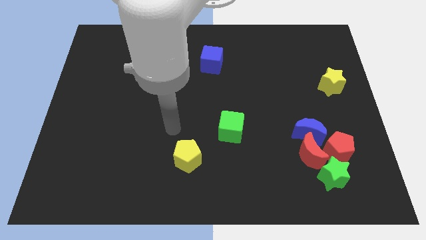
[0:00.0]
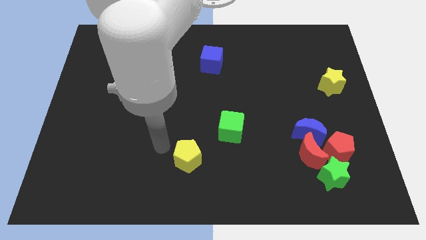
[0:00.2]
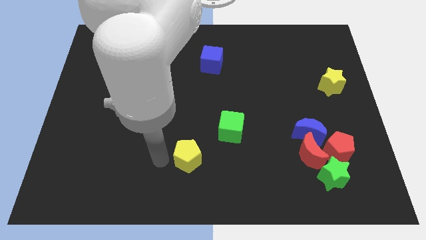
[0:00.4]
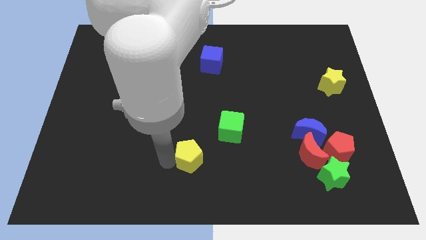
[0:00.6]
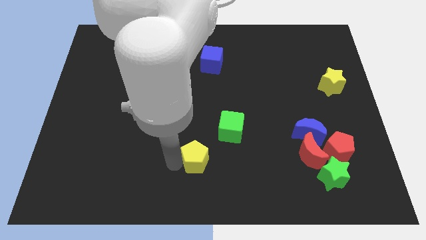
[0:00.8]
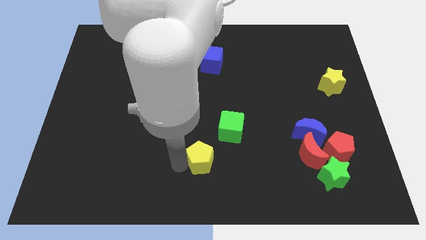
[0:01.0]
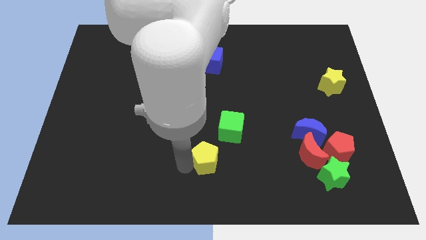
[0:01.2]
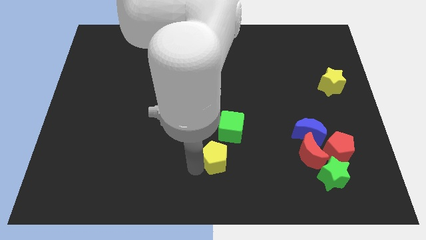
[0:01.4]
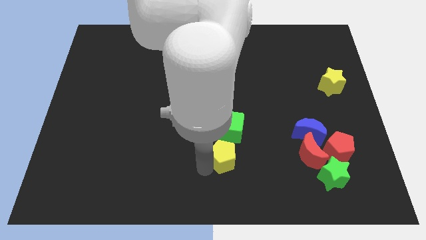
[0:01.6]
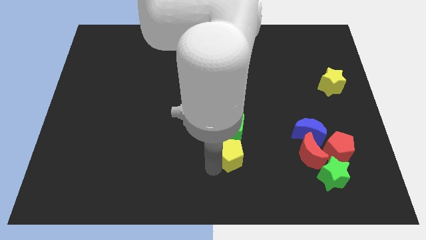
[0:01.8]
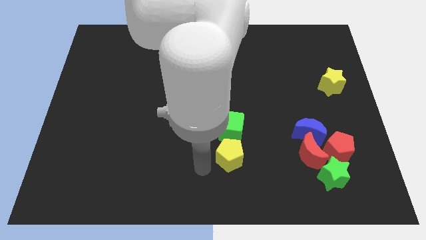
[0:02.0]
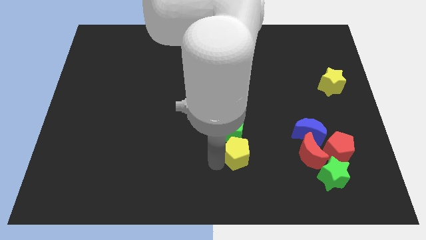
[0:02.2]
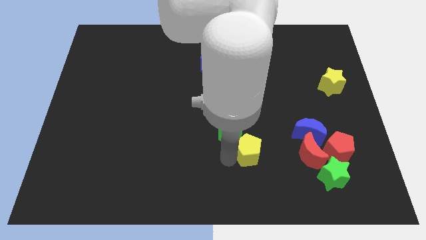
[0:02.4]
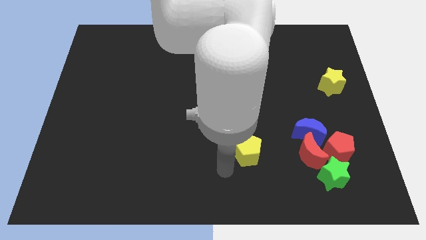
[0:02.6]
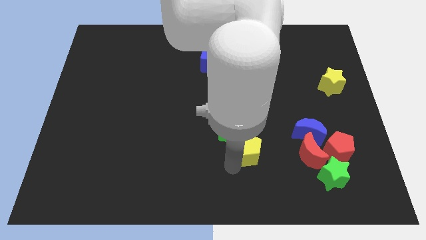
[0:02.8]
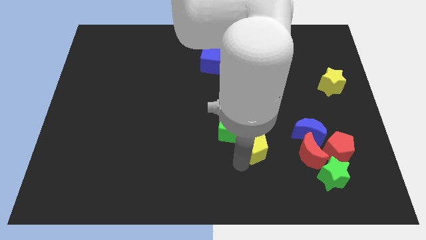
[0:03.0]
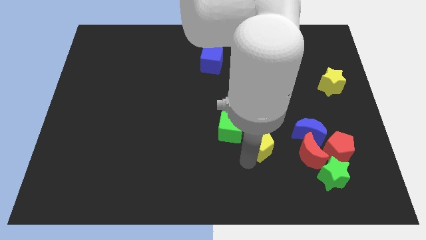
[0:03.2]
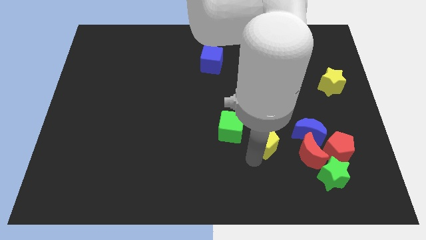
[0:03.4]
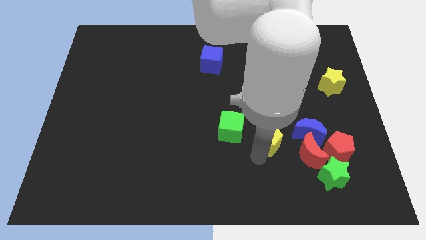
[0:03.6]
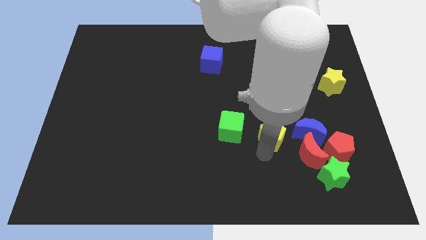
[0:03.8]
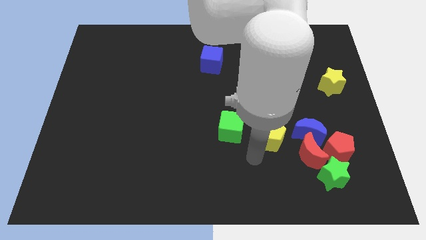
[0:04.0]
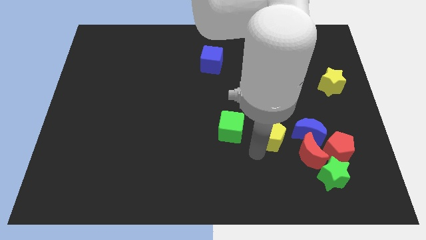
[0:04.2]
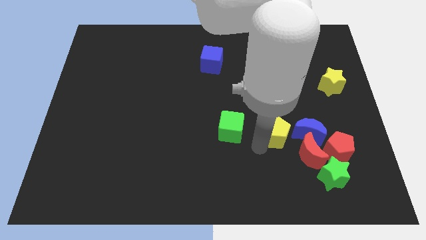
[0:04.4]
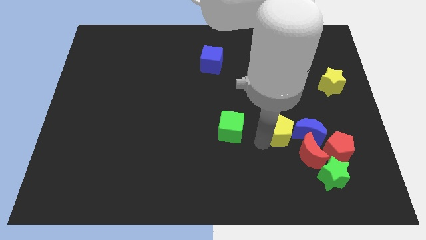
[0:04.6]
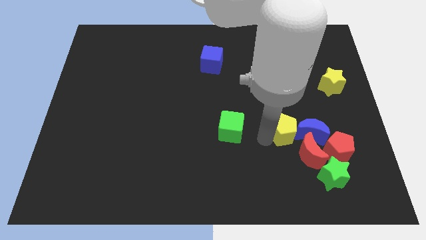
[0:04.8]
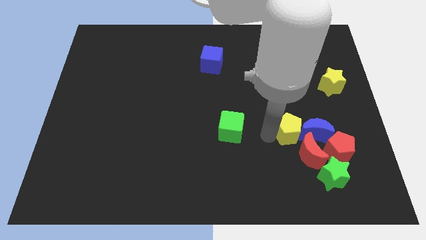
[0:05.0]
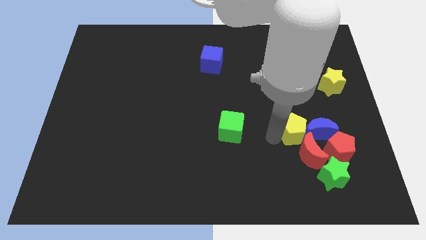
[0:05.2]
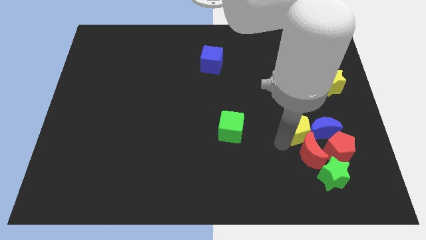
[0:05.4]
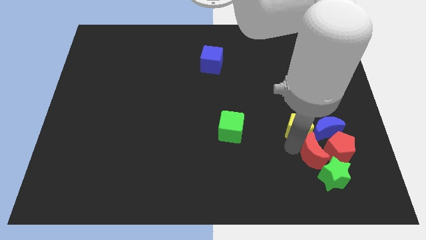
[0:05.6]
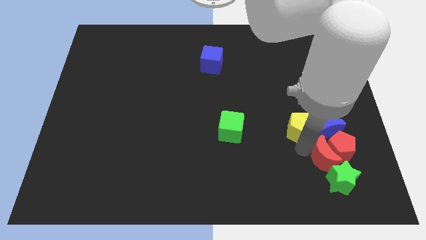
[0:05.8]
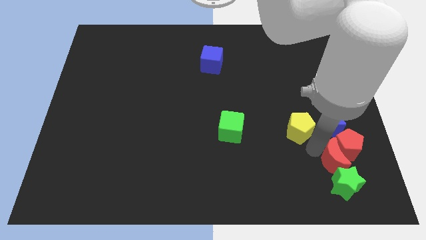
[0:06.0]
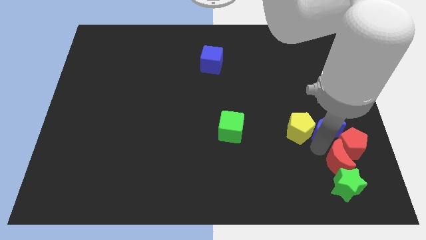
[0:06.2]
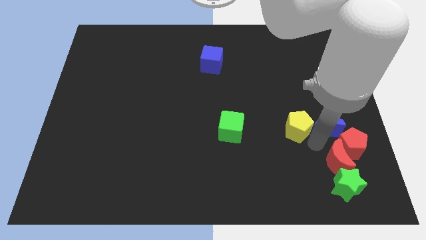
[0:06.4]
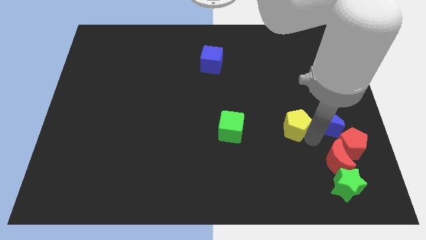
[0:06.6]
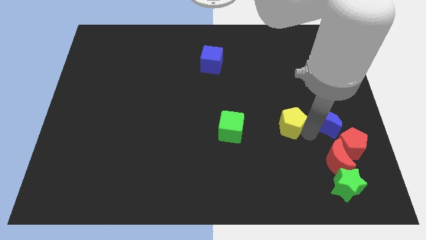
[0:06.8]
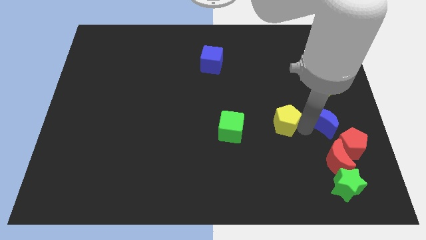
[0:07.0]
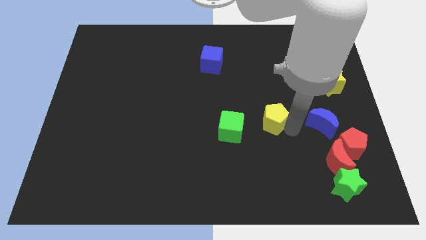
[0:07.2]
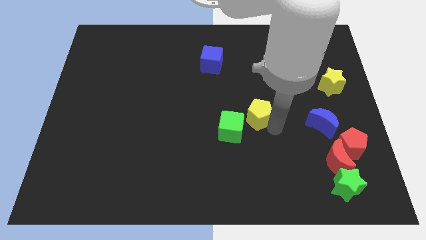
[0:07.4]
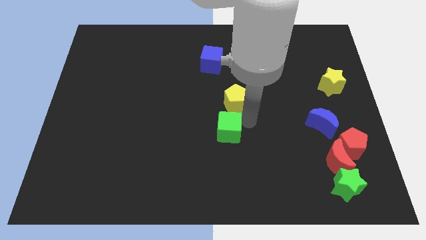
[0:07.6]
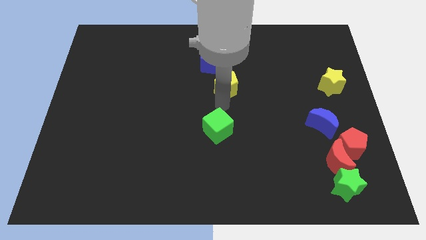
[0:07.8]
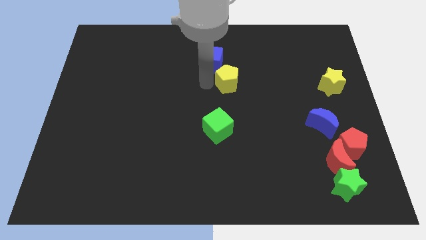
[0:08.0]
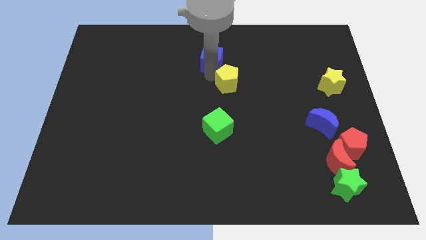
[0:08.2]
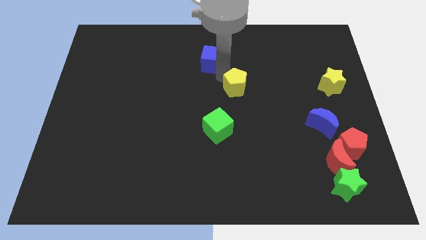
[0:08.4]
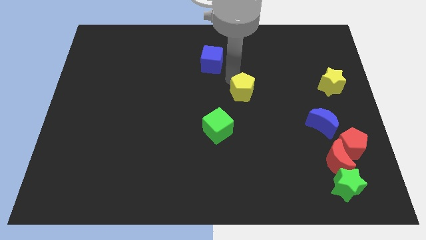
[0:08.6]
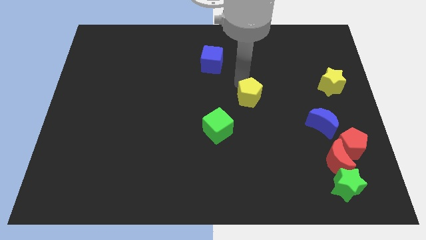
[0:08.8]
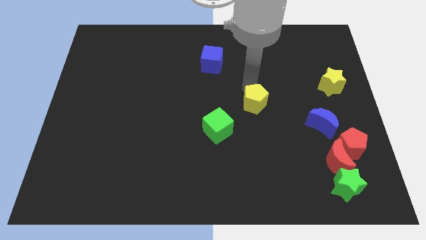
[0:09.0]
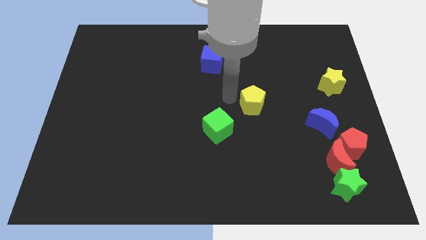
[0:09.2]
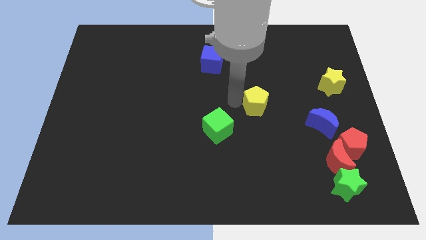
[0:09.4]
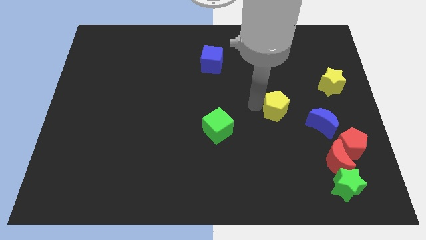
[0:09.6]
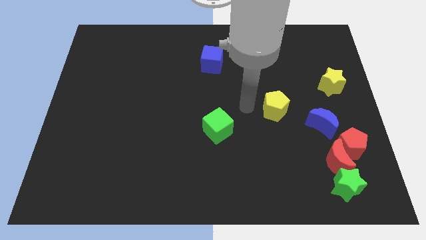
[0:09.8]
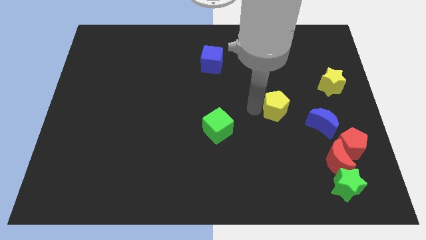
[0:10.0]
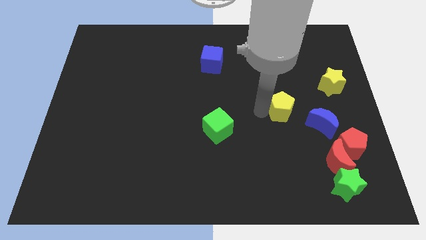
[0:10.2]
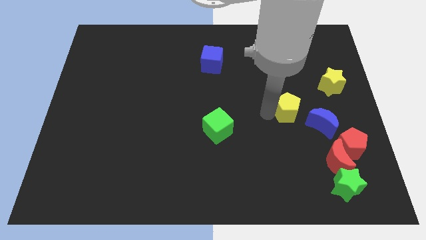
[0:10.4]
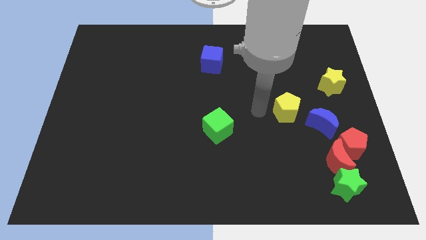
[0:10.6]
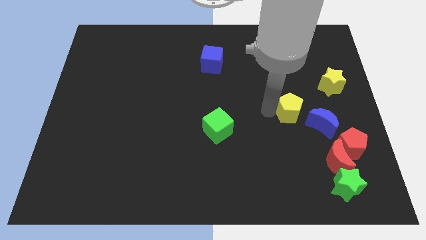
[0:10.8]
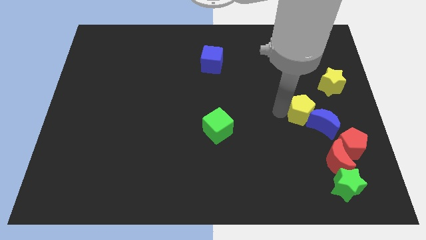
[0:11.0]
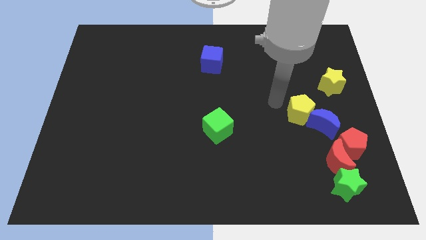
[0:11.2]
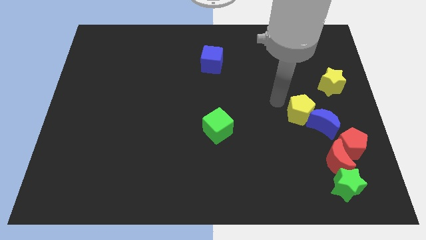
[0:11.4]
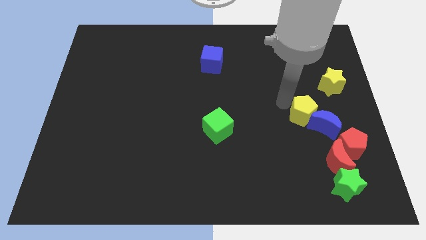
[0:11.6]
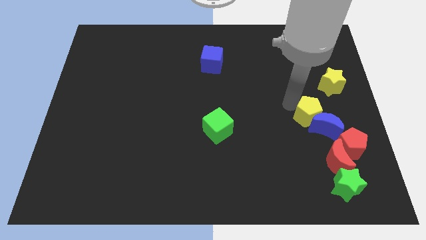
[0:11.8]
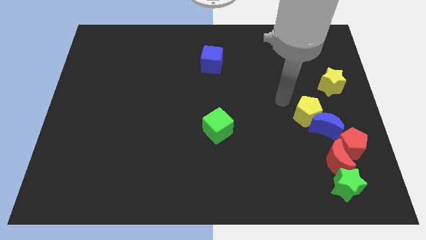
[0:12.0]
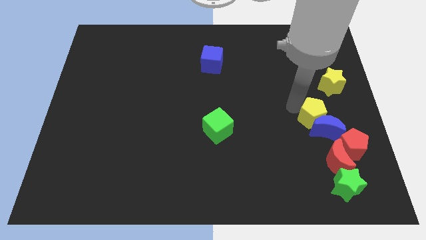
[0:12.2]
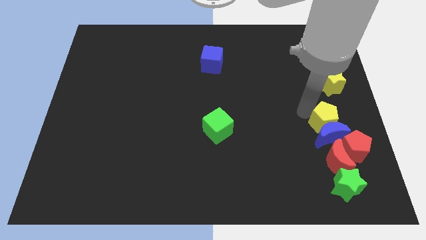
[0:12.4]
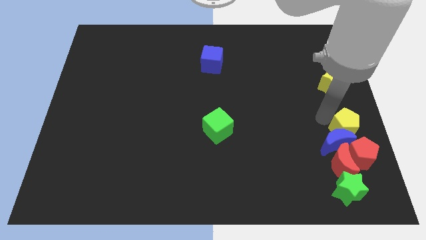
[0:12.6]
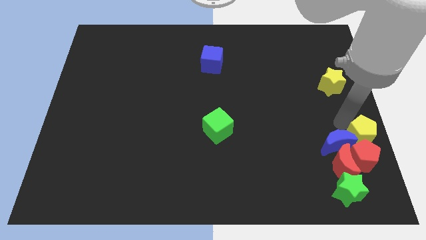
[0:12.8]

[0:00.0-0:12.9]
slide the yellow pentagon towards the red pentagon

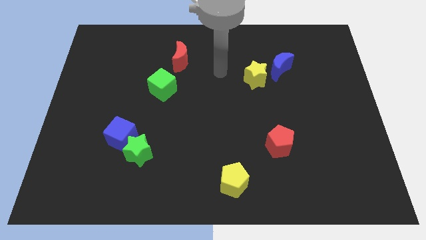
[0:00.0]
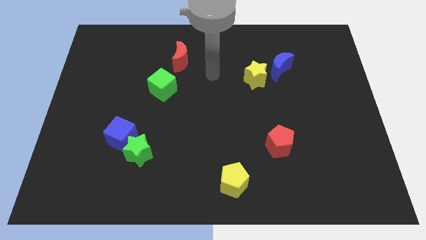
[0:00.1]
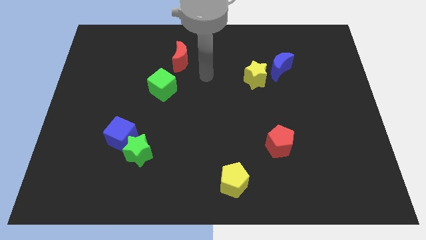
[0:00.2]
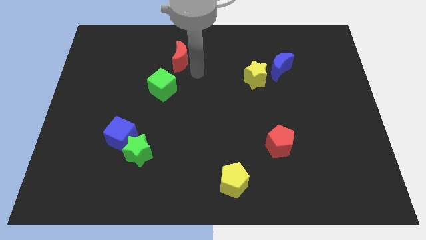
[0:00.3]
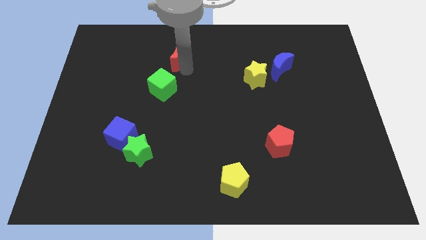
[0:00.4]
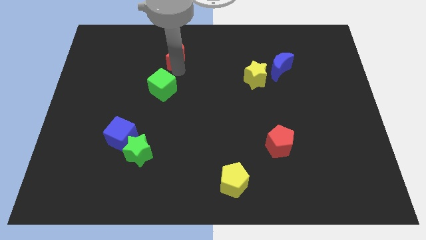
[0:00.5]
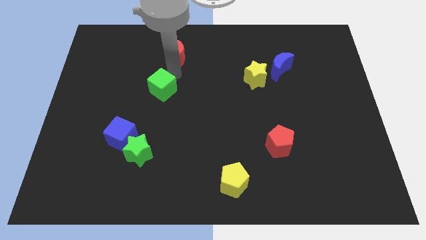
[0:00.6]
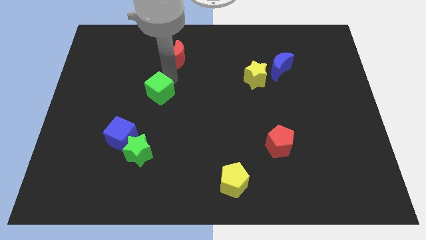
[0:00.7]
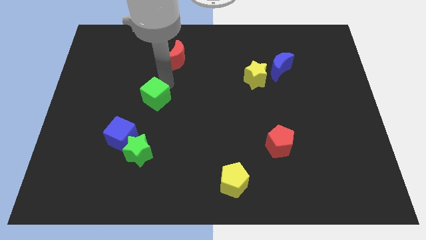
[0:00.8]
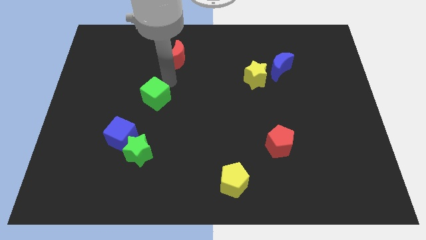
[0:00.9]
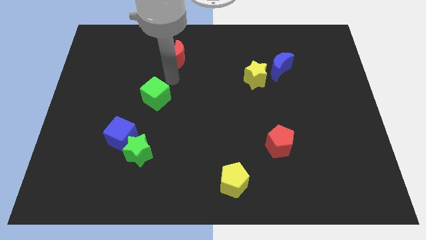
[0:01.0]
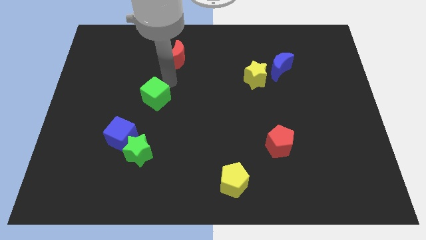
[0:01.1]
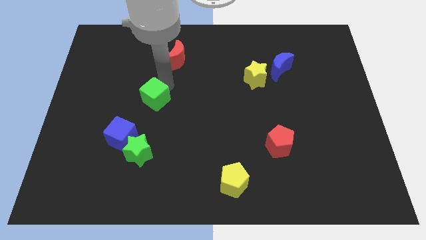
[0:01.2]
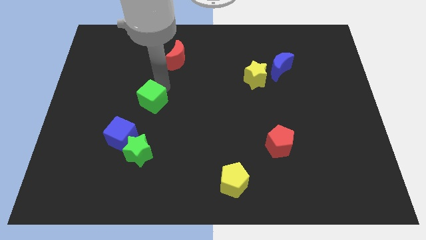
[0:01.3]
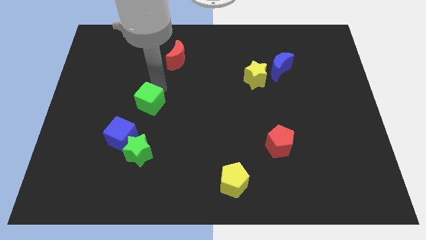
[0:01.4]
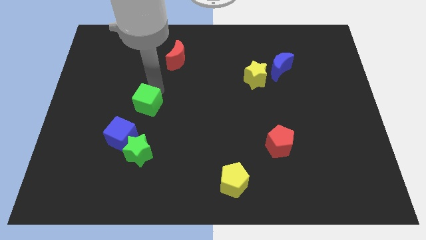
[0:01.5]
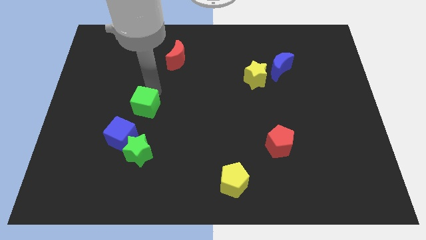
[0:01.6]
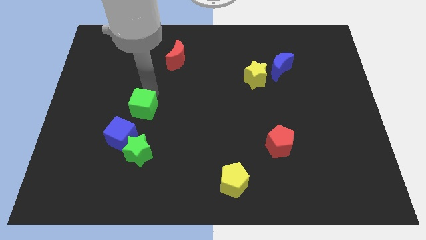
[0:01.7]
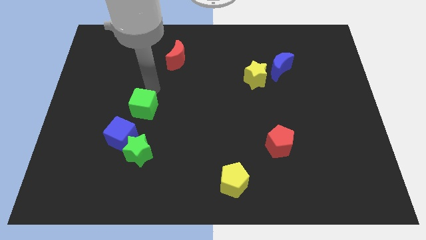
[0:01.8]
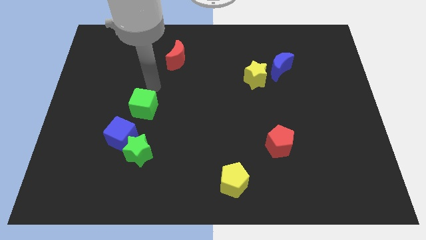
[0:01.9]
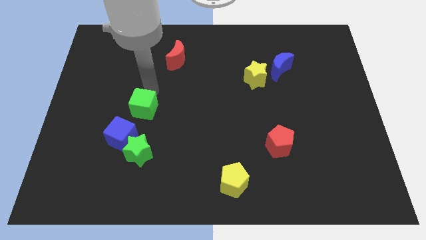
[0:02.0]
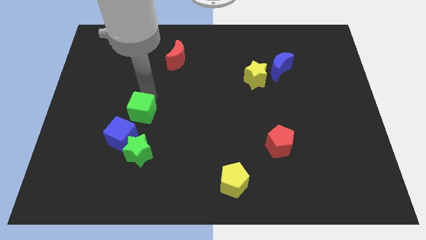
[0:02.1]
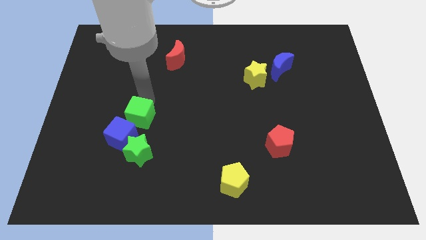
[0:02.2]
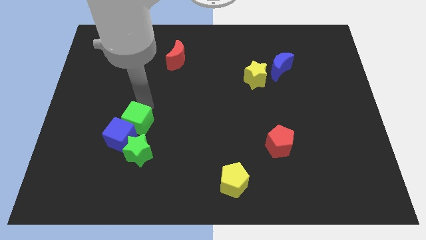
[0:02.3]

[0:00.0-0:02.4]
move the green cube close to the blue cube
